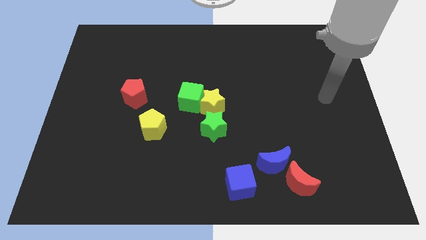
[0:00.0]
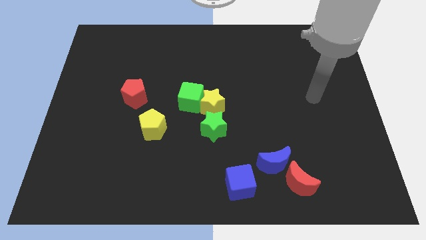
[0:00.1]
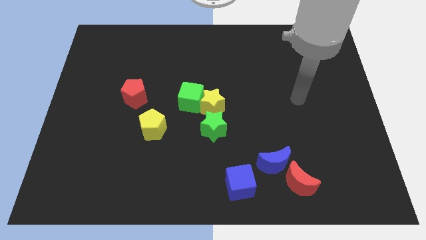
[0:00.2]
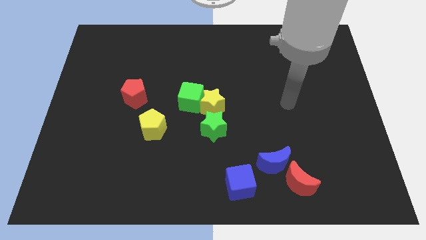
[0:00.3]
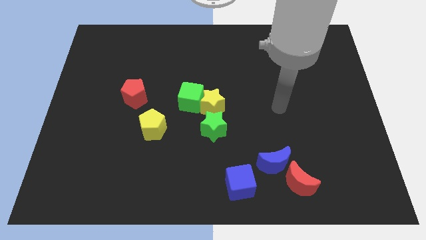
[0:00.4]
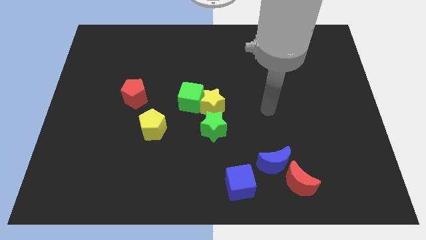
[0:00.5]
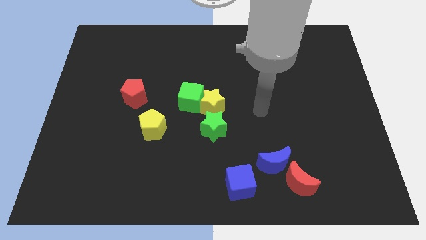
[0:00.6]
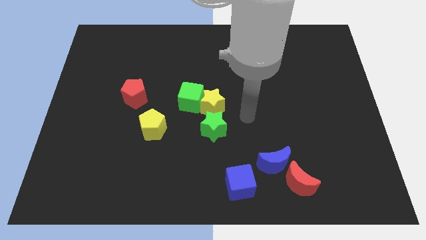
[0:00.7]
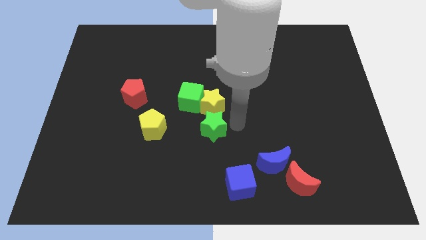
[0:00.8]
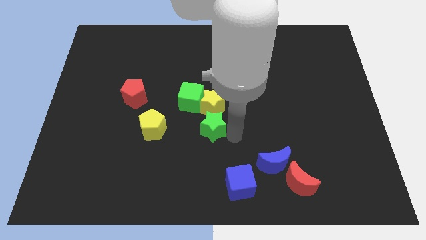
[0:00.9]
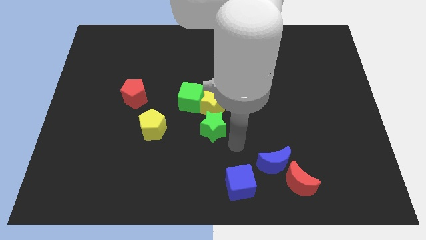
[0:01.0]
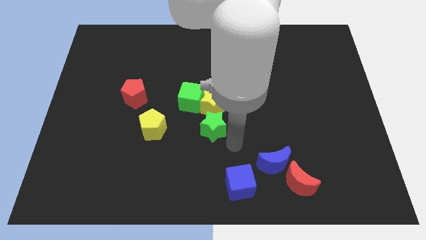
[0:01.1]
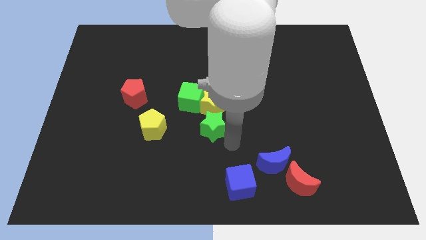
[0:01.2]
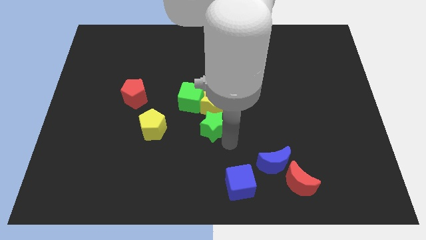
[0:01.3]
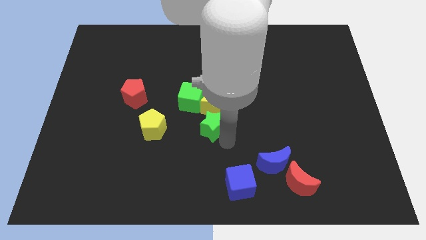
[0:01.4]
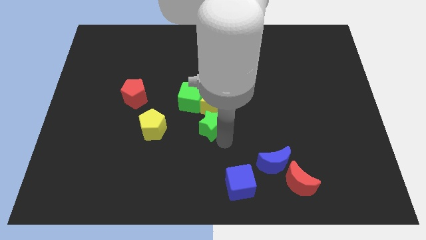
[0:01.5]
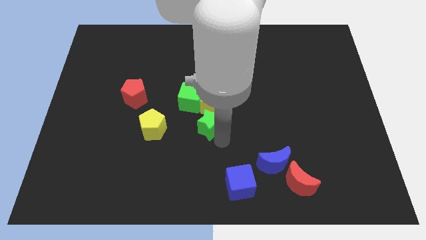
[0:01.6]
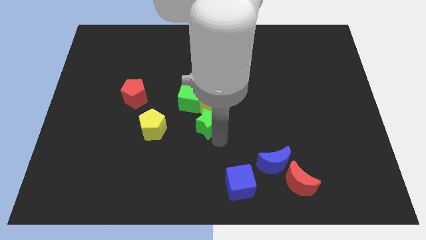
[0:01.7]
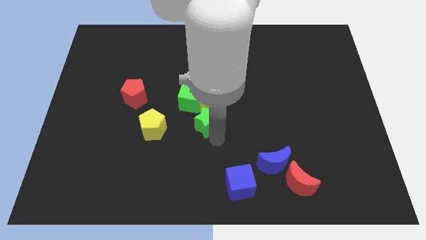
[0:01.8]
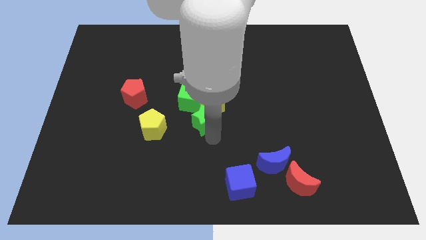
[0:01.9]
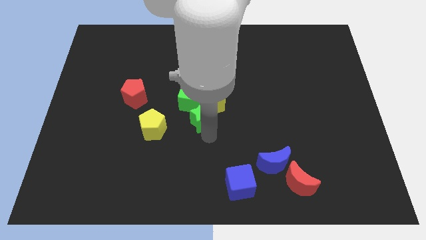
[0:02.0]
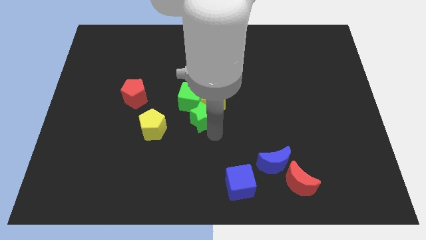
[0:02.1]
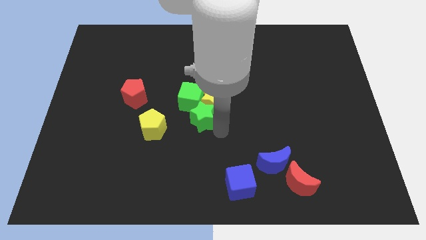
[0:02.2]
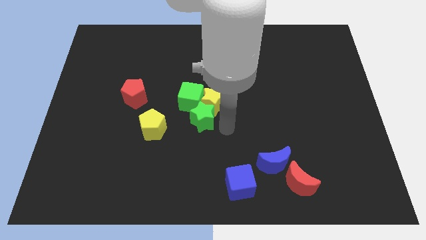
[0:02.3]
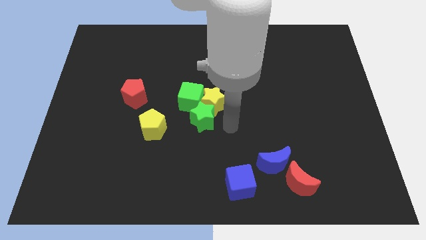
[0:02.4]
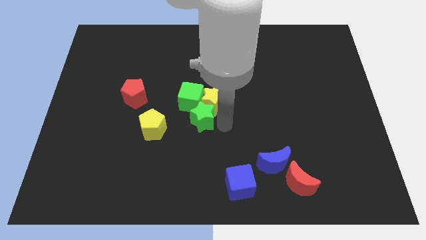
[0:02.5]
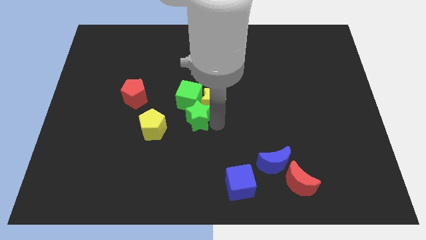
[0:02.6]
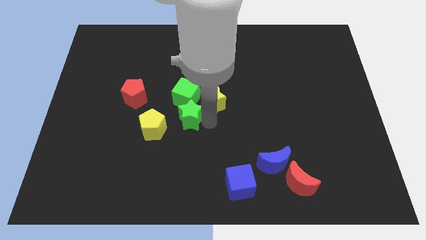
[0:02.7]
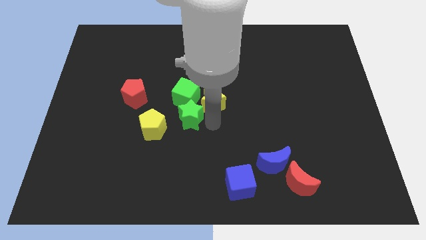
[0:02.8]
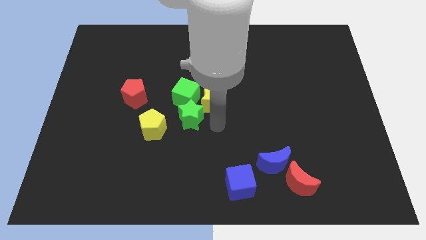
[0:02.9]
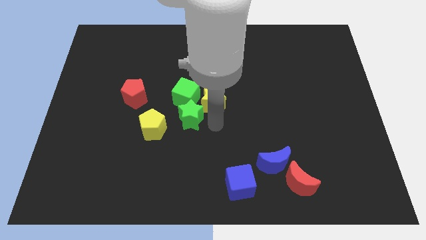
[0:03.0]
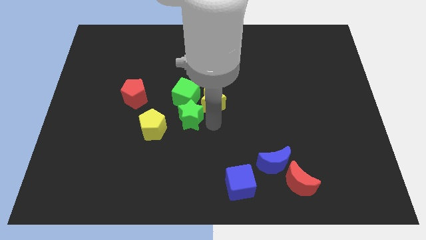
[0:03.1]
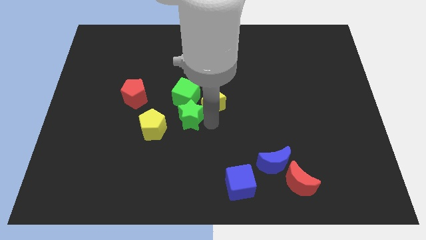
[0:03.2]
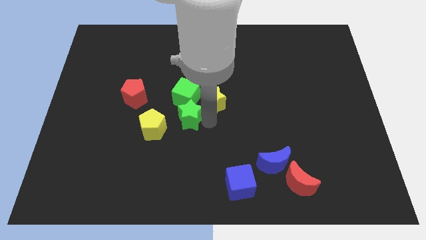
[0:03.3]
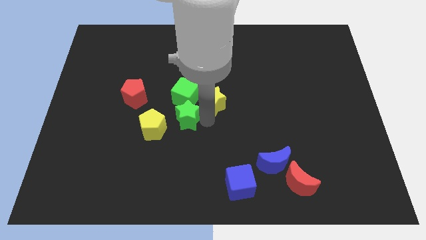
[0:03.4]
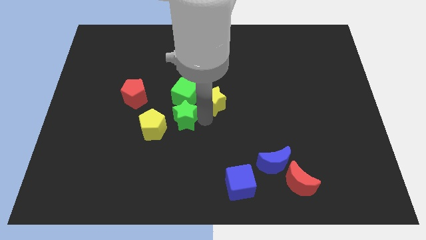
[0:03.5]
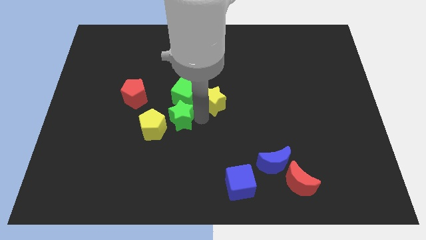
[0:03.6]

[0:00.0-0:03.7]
slide the green star somewhat up and then to the left

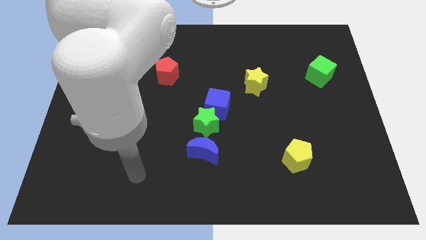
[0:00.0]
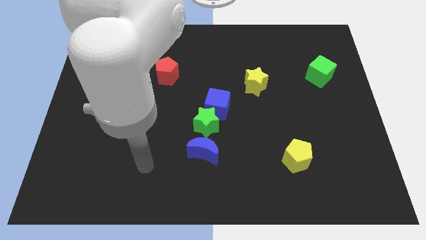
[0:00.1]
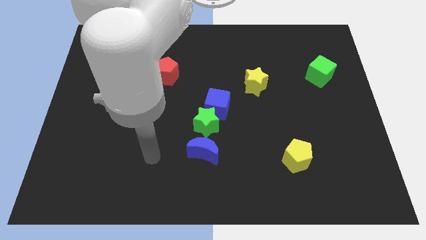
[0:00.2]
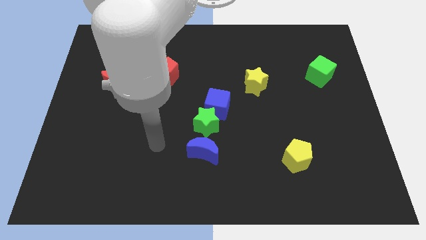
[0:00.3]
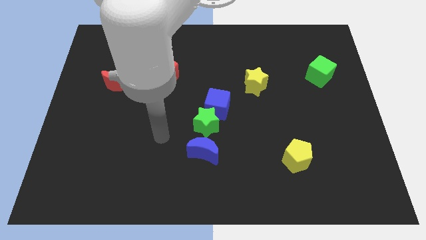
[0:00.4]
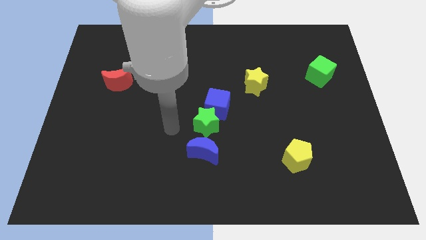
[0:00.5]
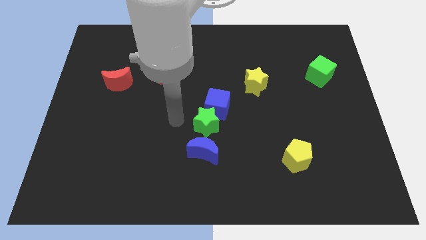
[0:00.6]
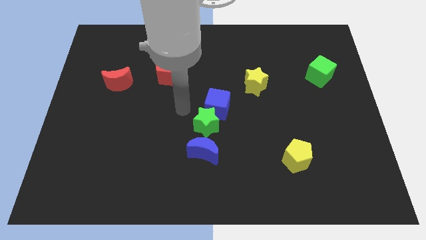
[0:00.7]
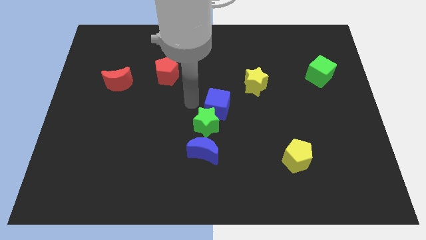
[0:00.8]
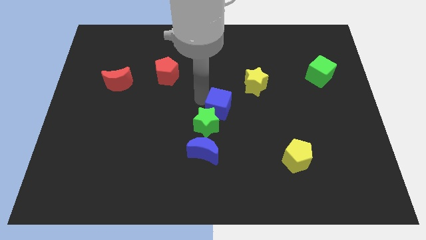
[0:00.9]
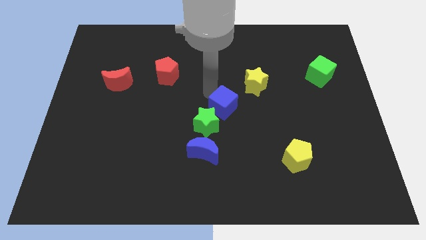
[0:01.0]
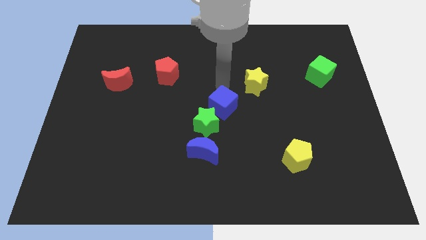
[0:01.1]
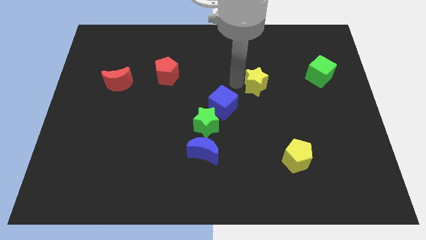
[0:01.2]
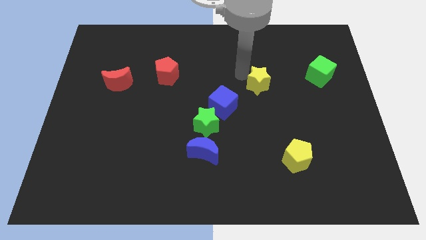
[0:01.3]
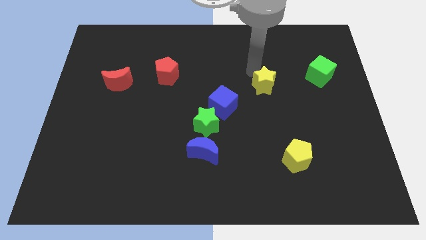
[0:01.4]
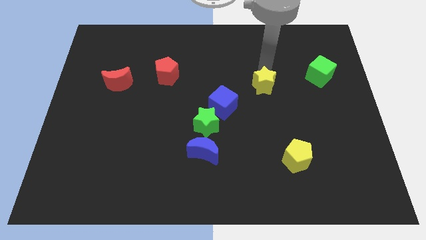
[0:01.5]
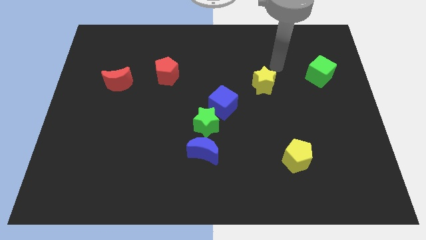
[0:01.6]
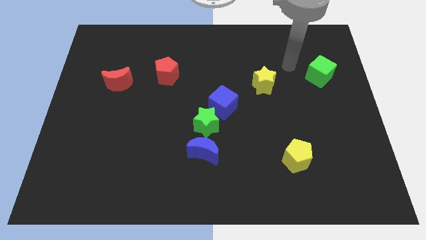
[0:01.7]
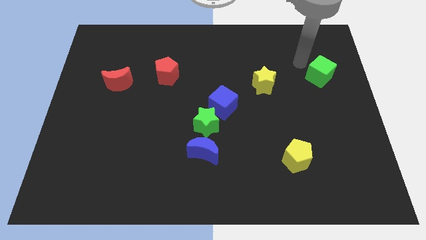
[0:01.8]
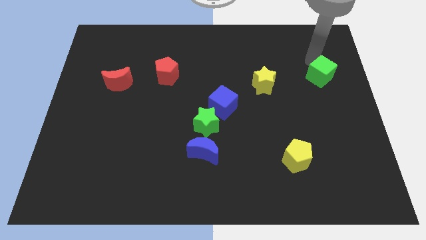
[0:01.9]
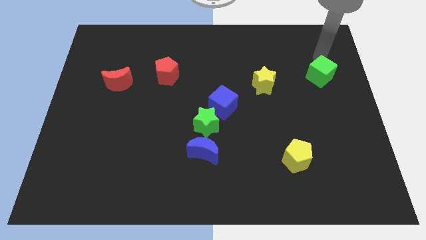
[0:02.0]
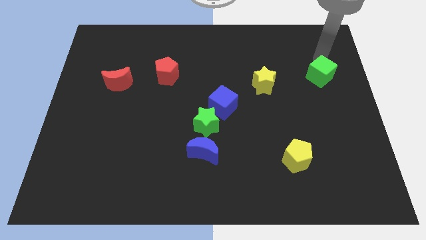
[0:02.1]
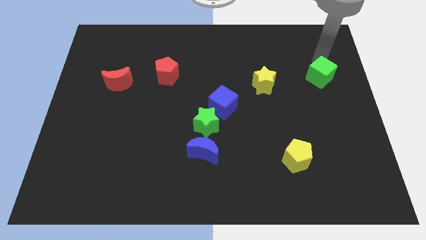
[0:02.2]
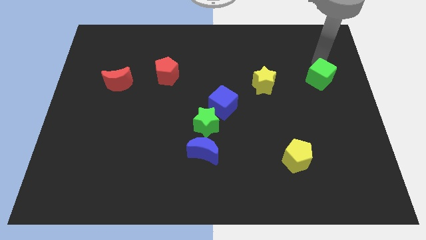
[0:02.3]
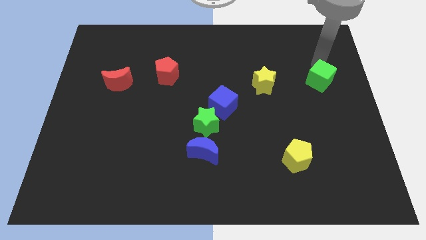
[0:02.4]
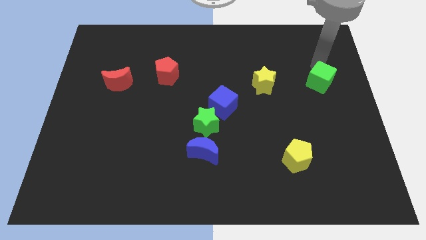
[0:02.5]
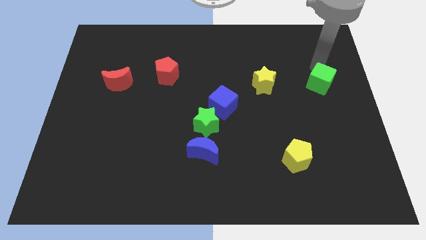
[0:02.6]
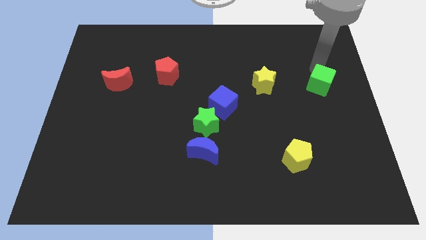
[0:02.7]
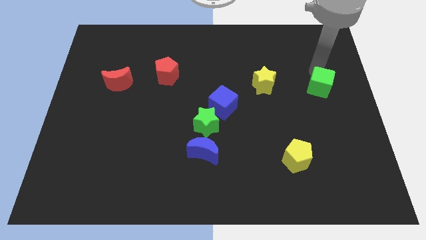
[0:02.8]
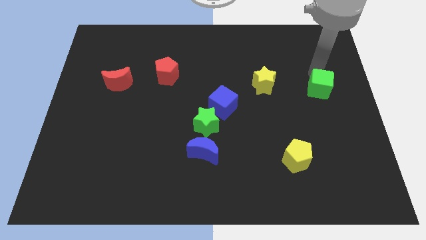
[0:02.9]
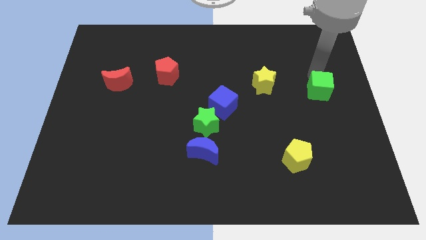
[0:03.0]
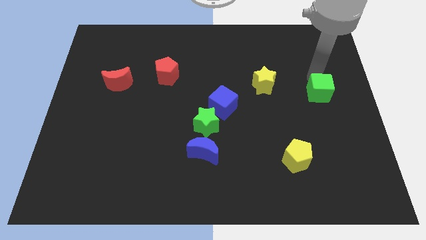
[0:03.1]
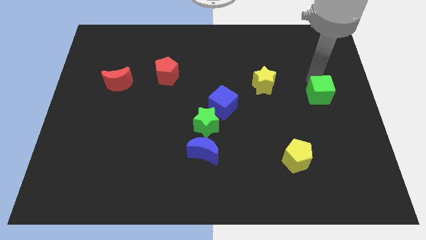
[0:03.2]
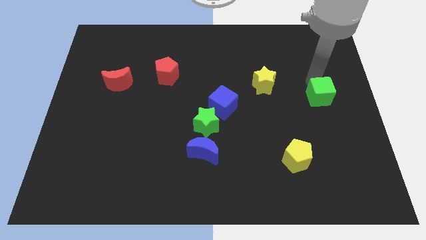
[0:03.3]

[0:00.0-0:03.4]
push the green cube somewhat down

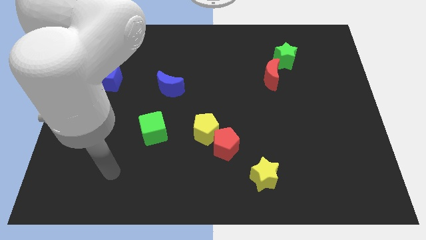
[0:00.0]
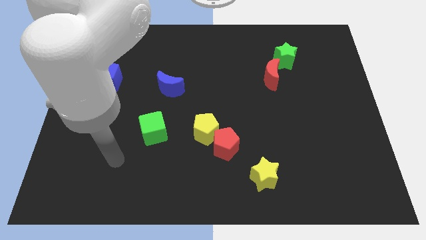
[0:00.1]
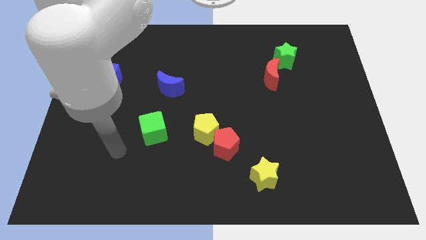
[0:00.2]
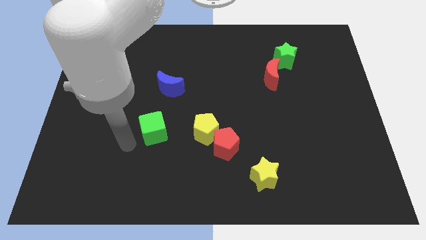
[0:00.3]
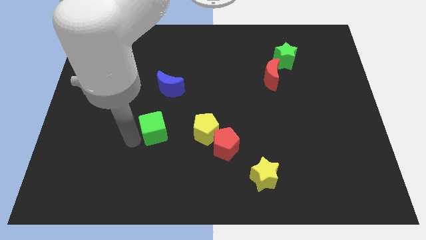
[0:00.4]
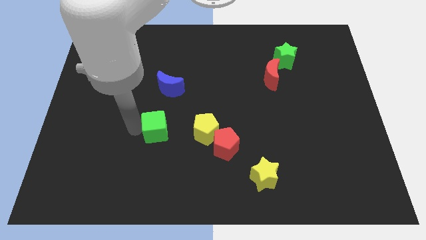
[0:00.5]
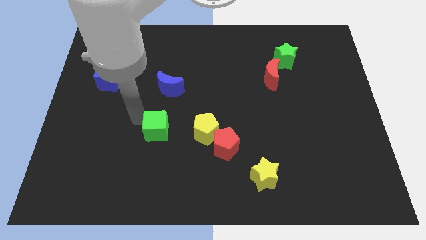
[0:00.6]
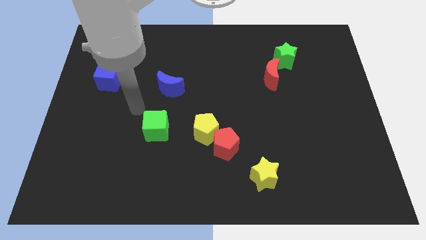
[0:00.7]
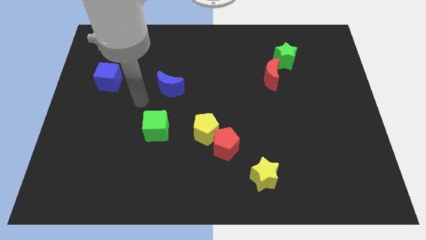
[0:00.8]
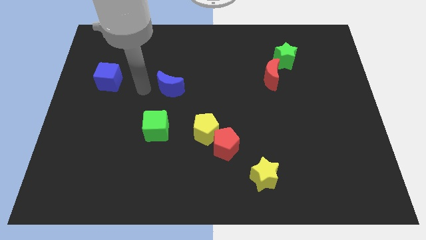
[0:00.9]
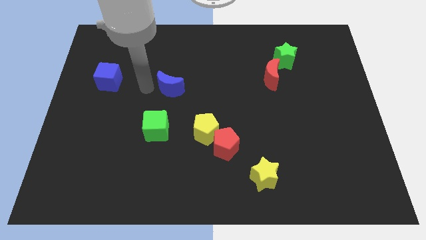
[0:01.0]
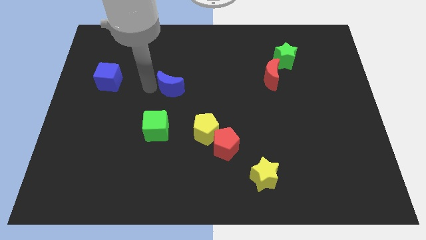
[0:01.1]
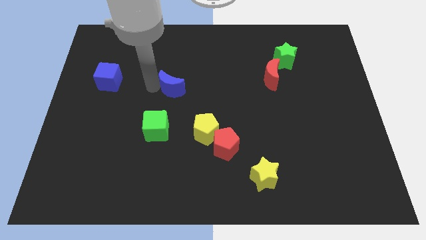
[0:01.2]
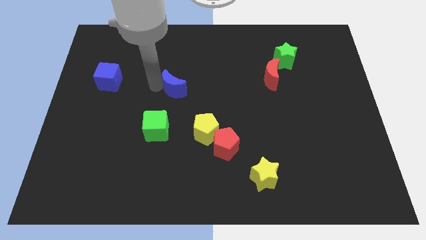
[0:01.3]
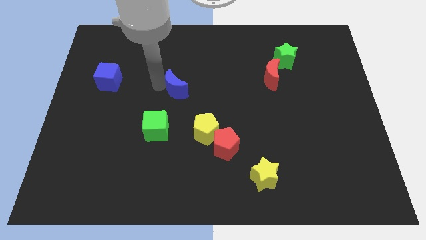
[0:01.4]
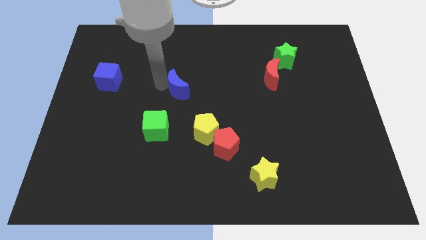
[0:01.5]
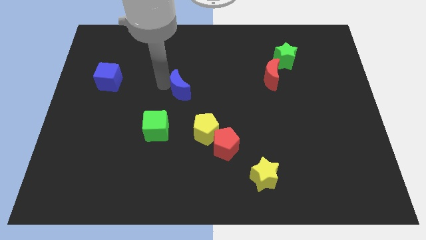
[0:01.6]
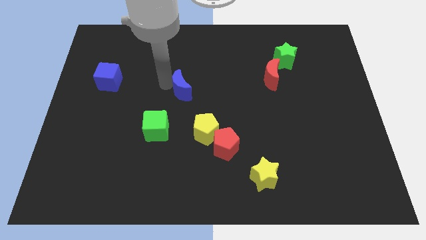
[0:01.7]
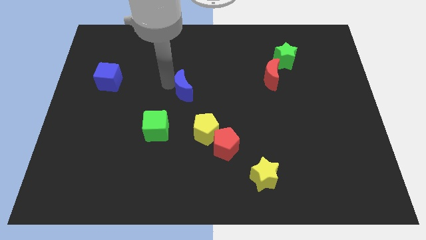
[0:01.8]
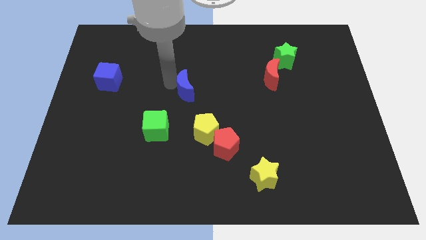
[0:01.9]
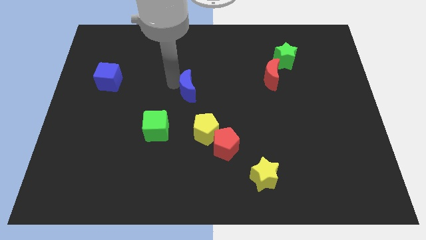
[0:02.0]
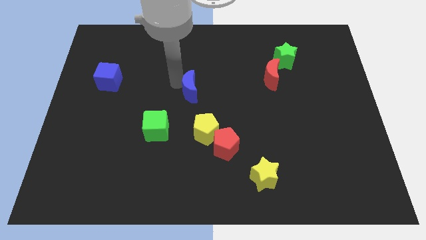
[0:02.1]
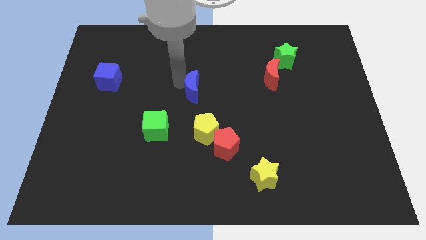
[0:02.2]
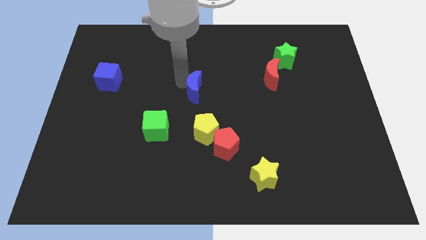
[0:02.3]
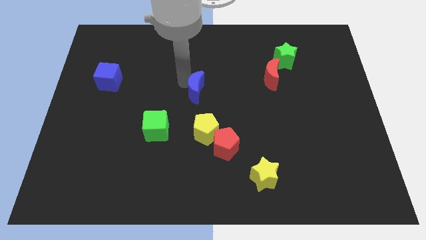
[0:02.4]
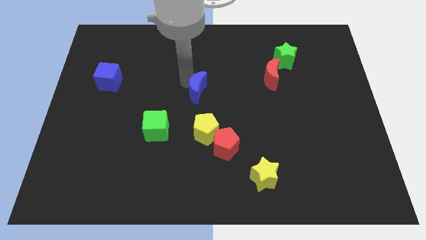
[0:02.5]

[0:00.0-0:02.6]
push the blue moon slightly right
